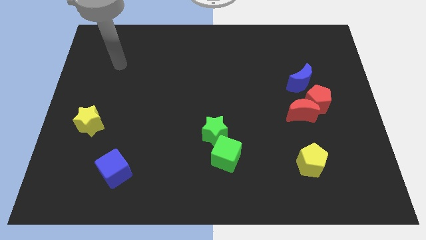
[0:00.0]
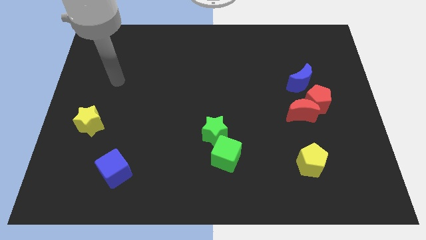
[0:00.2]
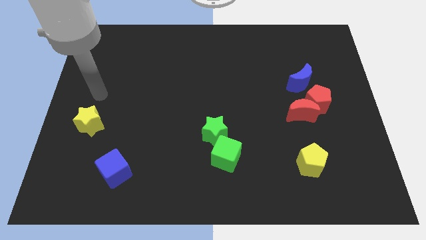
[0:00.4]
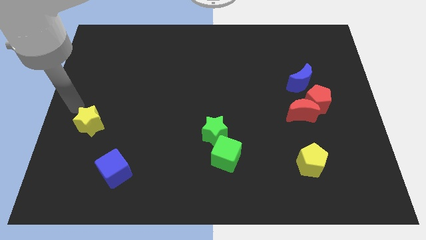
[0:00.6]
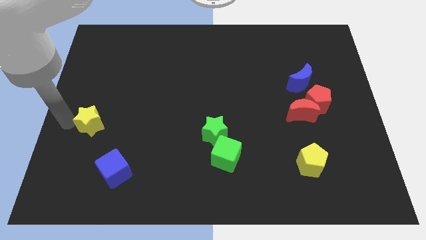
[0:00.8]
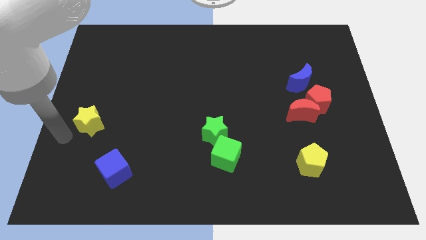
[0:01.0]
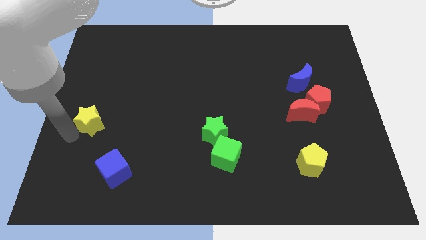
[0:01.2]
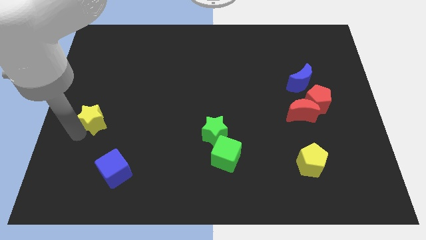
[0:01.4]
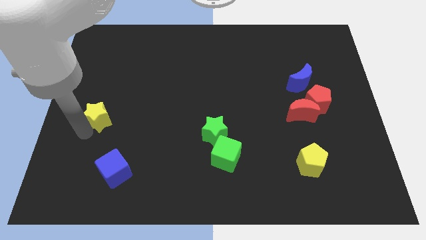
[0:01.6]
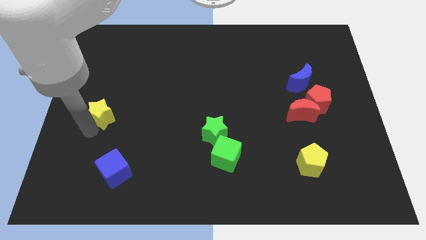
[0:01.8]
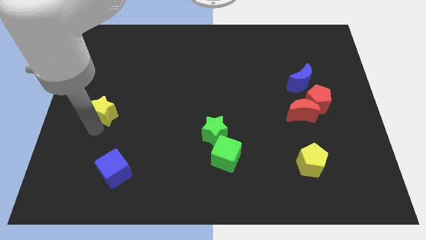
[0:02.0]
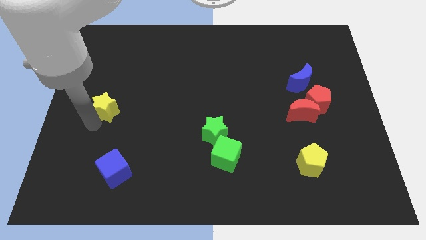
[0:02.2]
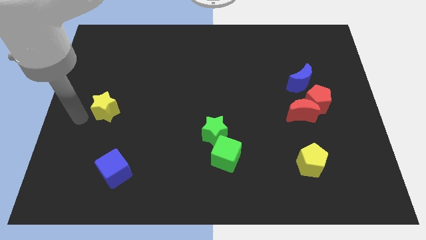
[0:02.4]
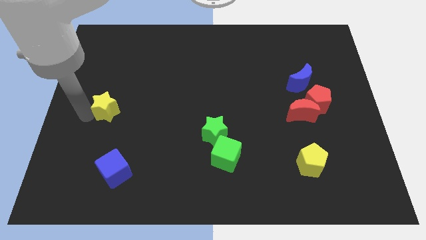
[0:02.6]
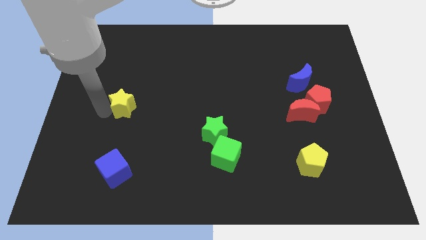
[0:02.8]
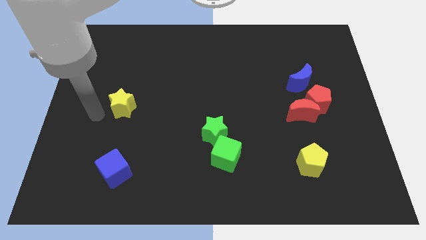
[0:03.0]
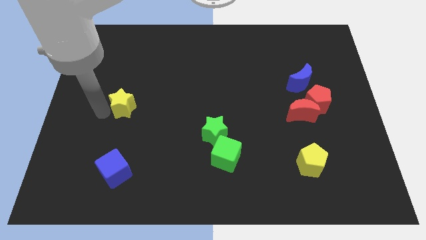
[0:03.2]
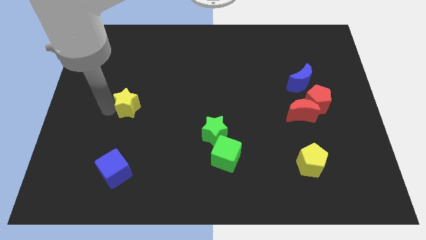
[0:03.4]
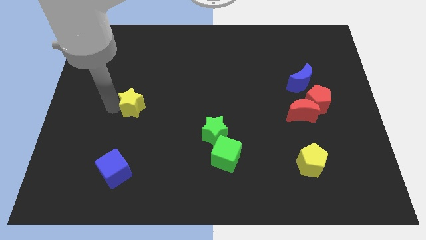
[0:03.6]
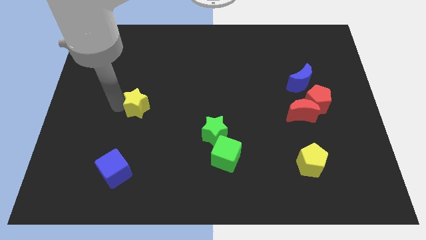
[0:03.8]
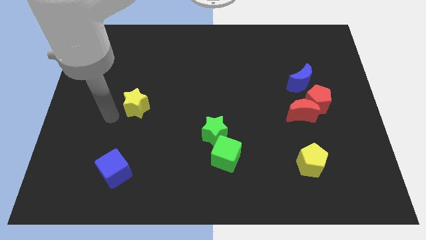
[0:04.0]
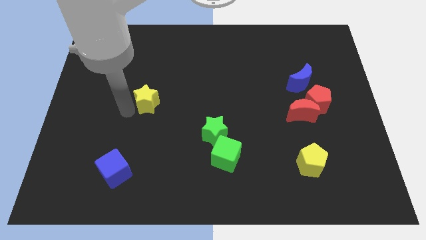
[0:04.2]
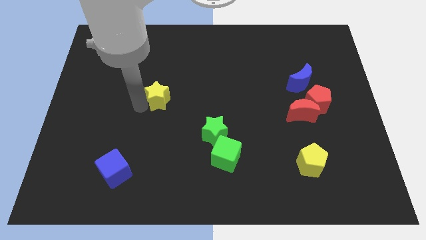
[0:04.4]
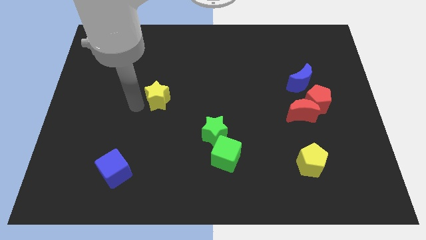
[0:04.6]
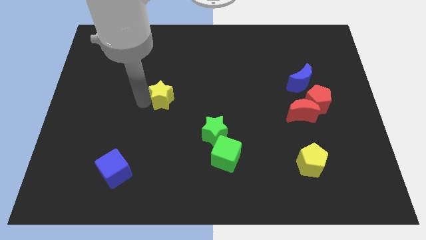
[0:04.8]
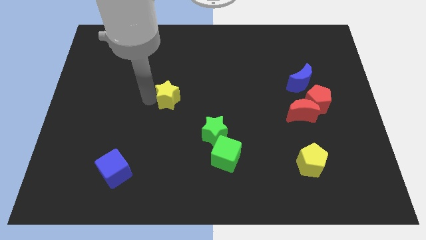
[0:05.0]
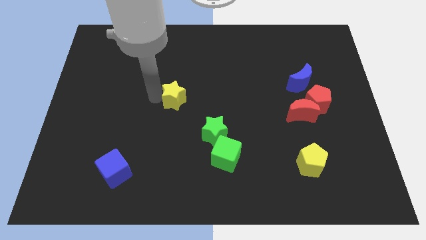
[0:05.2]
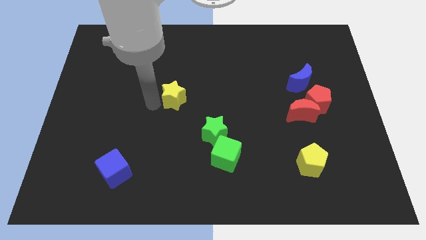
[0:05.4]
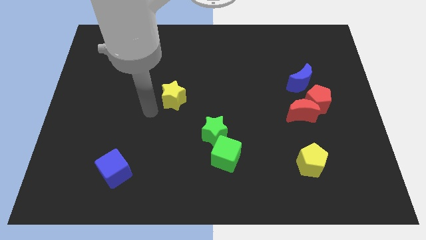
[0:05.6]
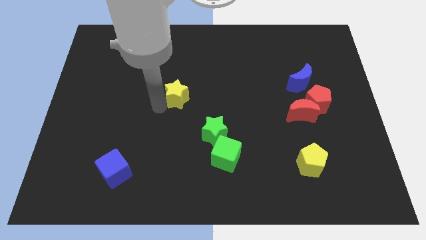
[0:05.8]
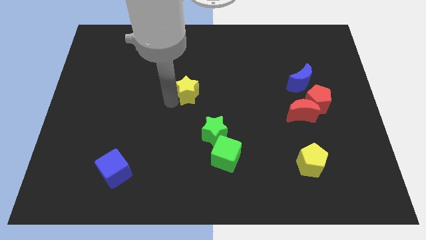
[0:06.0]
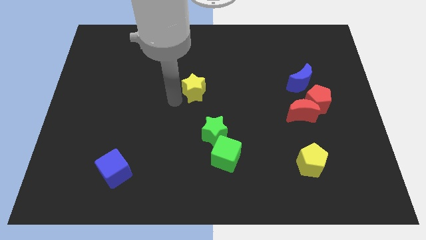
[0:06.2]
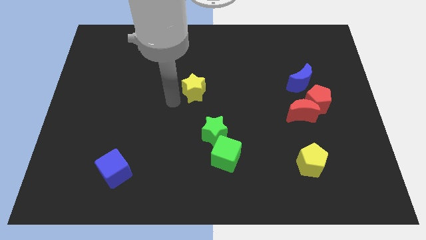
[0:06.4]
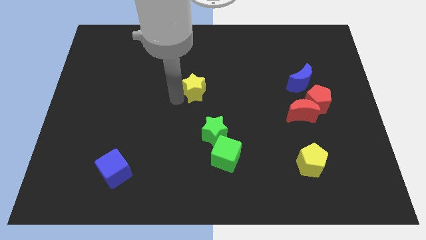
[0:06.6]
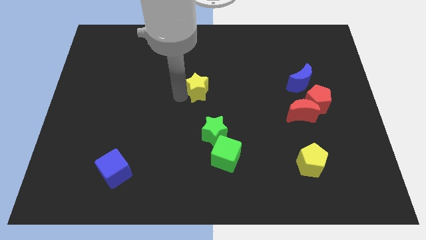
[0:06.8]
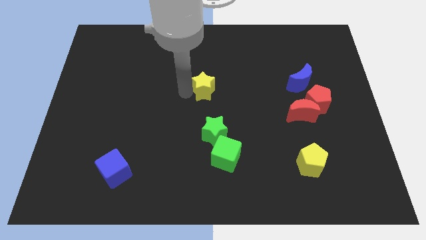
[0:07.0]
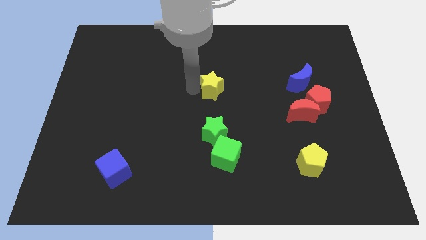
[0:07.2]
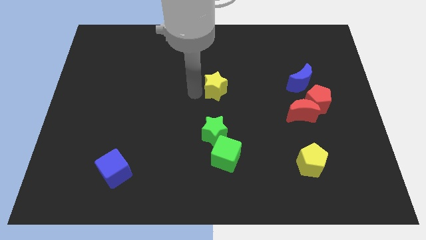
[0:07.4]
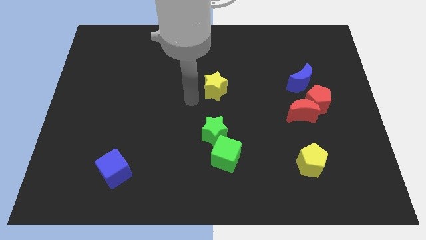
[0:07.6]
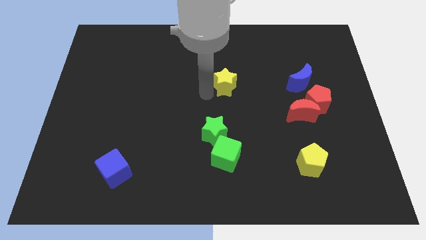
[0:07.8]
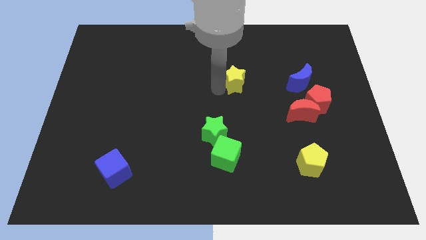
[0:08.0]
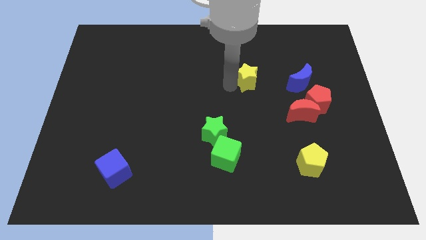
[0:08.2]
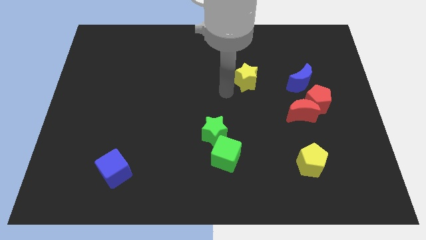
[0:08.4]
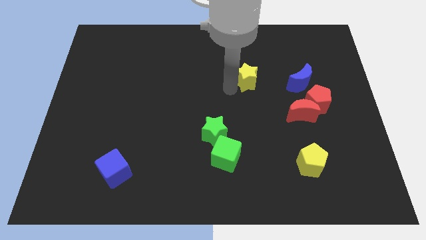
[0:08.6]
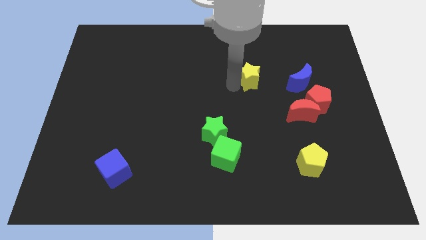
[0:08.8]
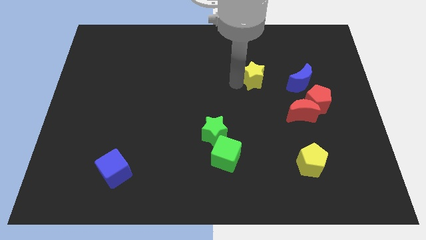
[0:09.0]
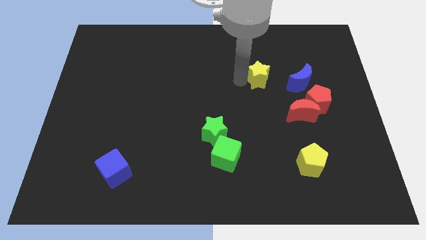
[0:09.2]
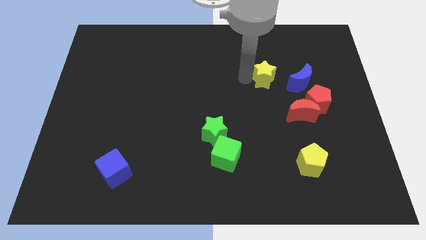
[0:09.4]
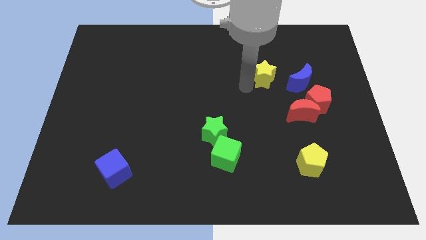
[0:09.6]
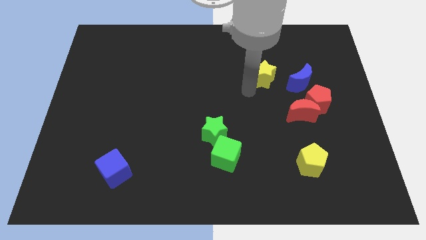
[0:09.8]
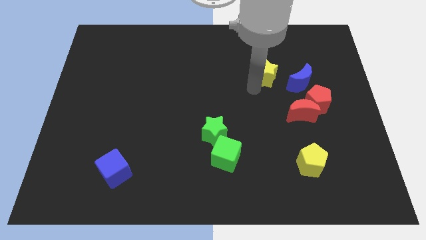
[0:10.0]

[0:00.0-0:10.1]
put the yellow star diagonally up and to the left of the blue moon

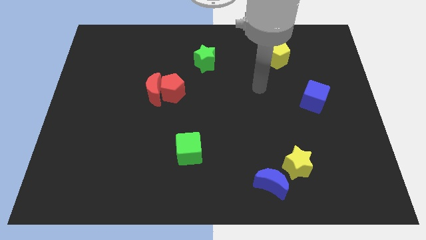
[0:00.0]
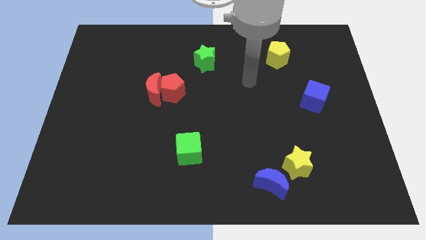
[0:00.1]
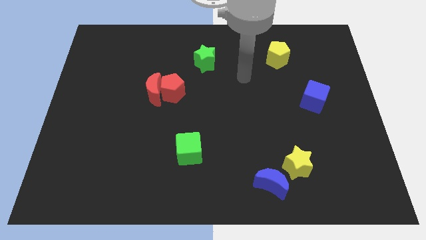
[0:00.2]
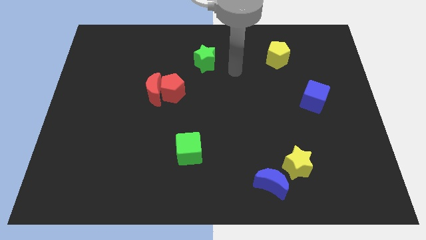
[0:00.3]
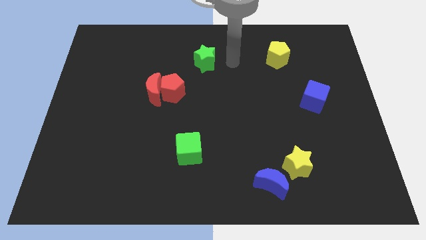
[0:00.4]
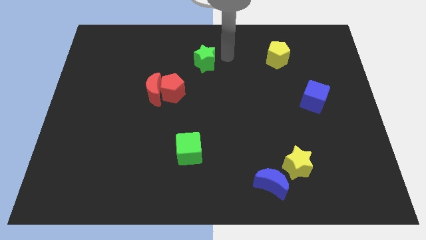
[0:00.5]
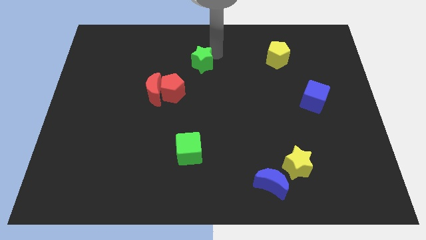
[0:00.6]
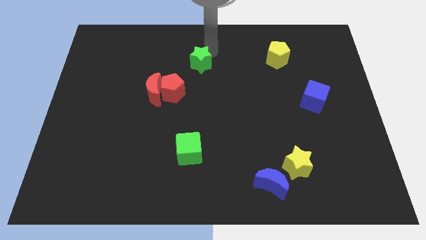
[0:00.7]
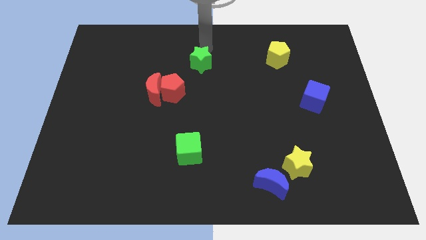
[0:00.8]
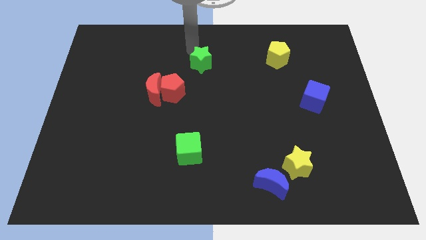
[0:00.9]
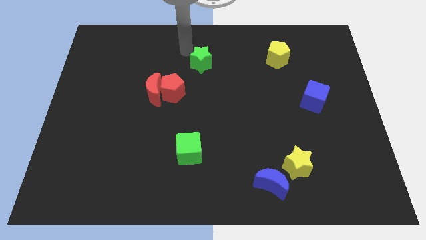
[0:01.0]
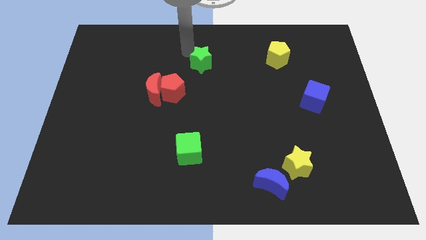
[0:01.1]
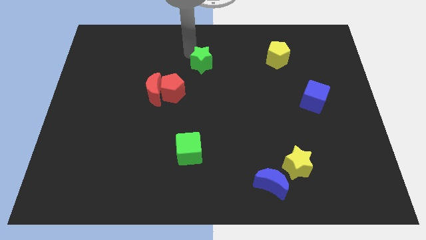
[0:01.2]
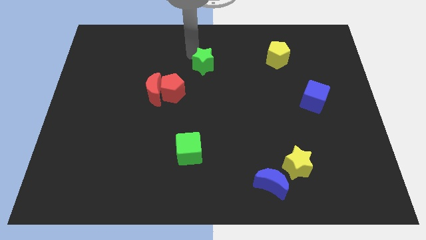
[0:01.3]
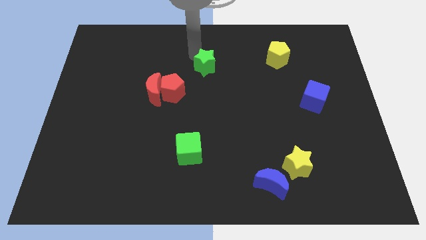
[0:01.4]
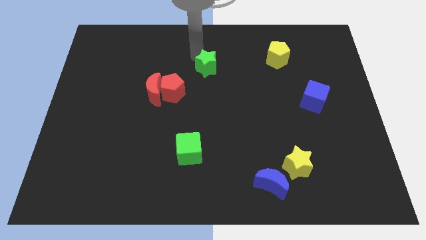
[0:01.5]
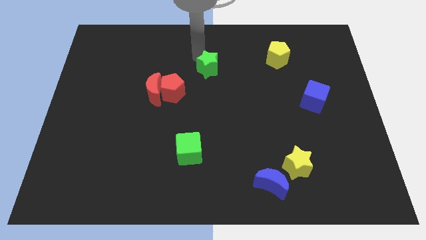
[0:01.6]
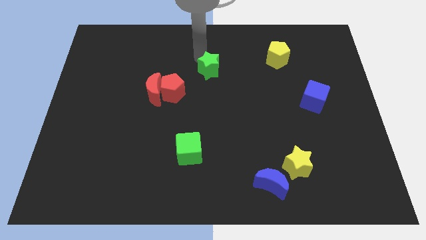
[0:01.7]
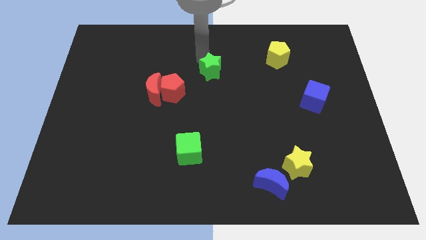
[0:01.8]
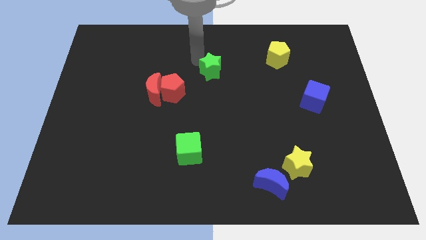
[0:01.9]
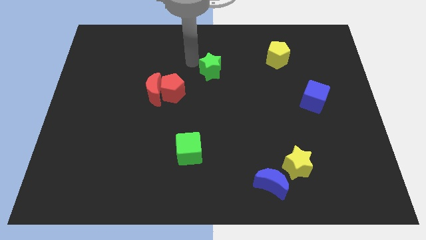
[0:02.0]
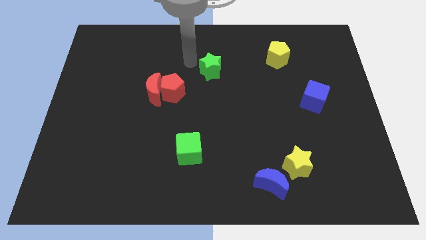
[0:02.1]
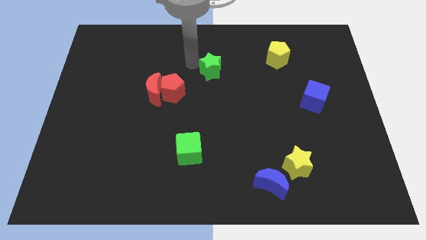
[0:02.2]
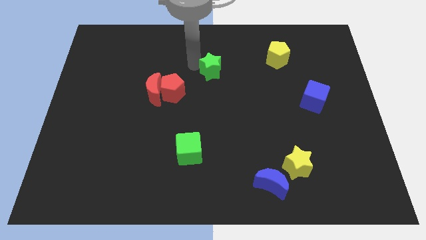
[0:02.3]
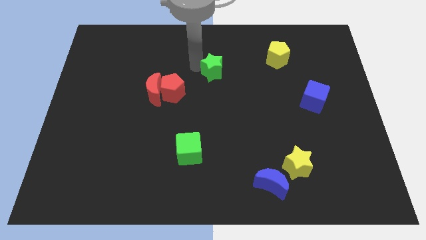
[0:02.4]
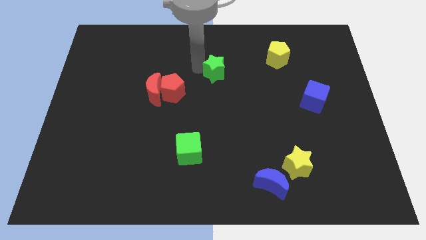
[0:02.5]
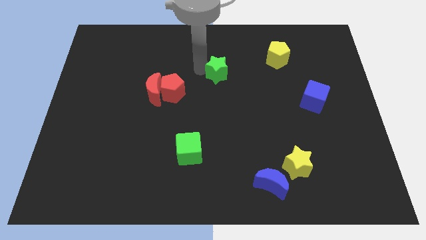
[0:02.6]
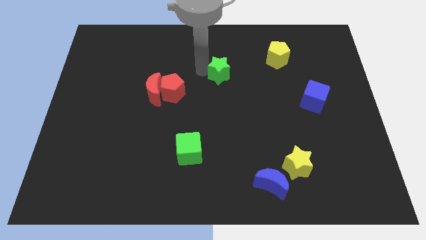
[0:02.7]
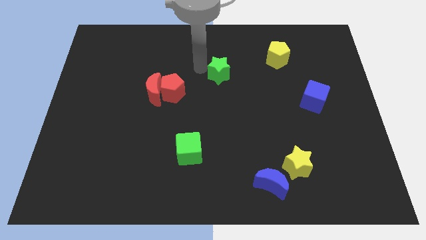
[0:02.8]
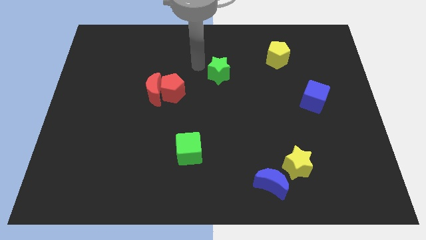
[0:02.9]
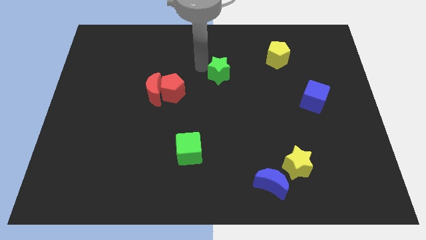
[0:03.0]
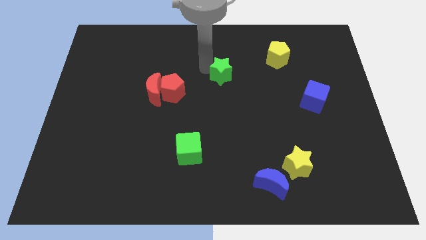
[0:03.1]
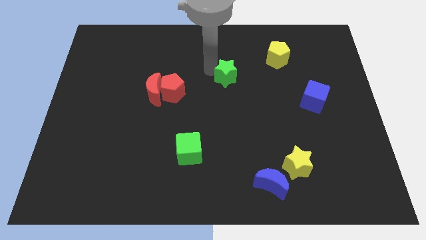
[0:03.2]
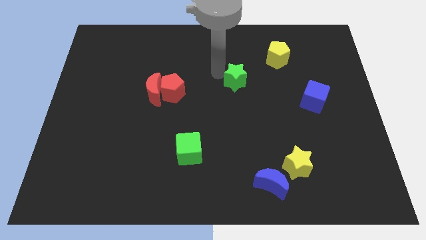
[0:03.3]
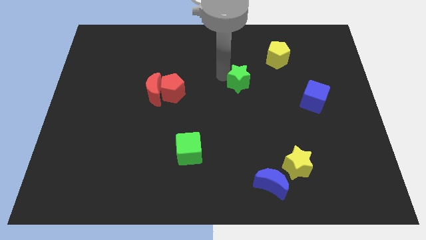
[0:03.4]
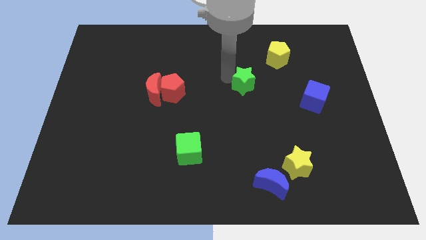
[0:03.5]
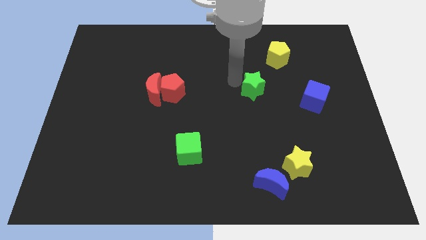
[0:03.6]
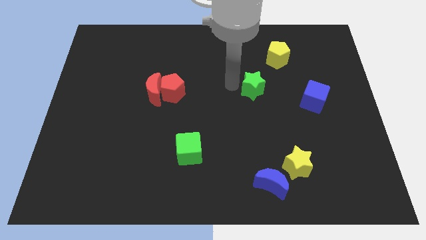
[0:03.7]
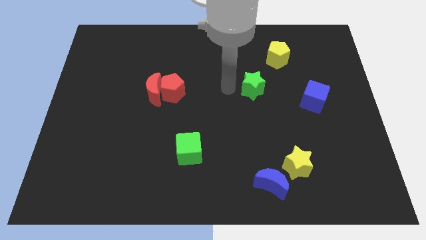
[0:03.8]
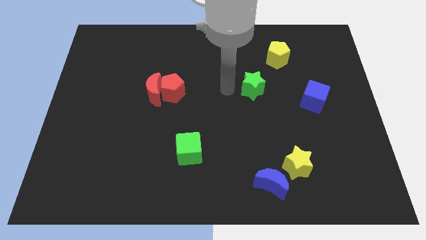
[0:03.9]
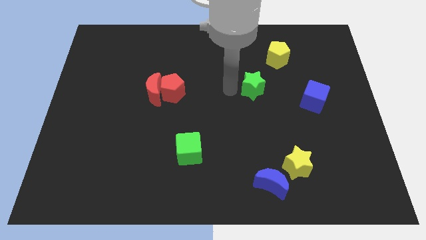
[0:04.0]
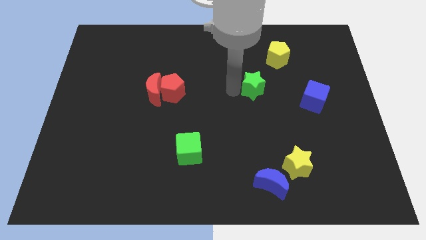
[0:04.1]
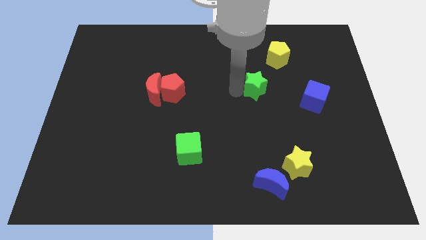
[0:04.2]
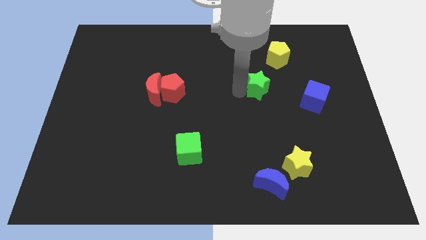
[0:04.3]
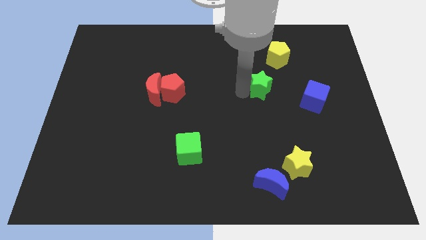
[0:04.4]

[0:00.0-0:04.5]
push the green star to the bottom of the yellow pentagon
